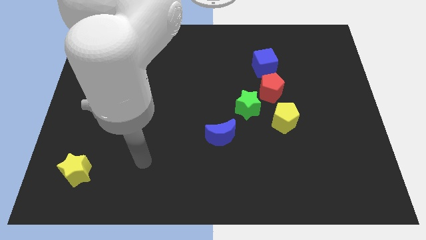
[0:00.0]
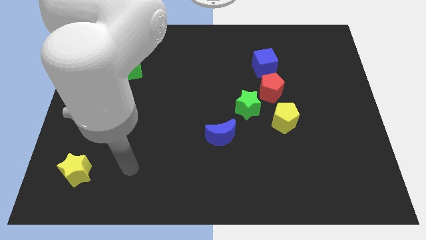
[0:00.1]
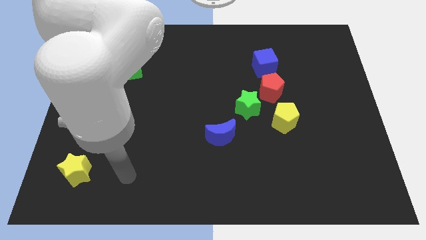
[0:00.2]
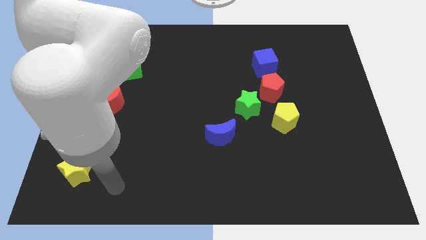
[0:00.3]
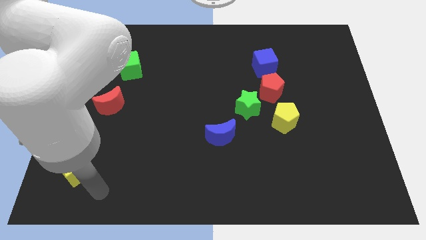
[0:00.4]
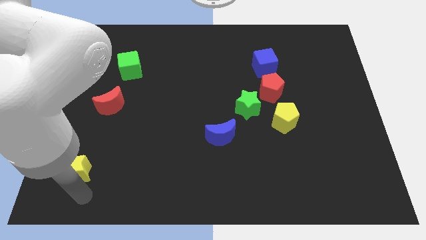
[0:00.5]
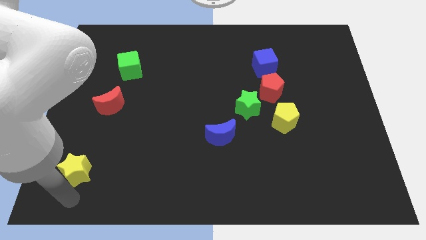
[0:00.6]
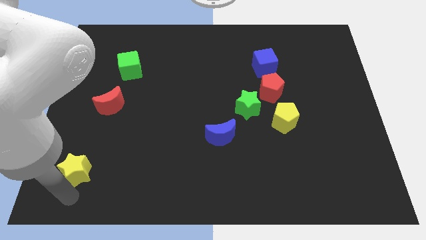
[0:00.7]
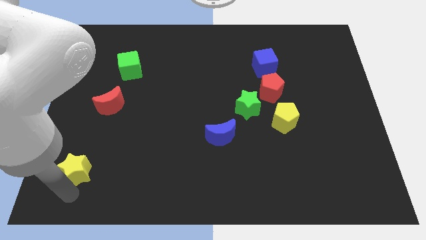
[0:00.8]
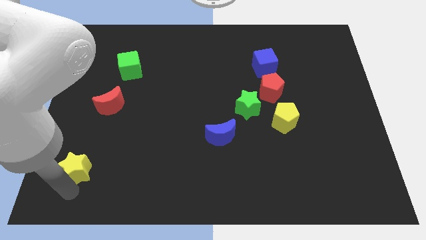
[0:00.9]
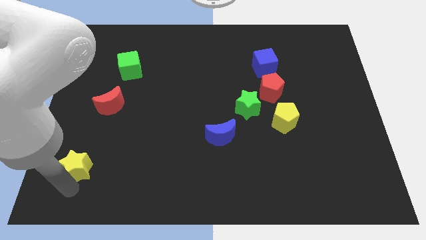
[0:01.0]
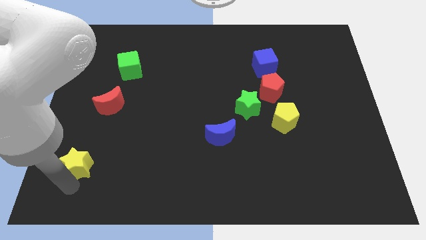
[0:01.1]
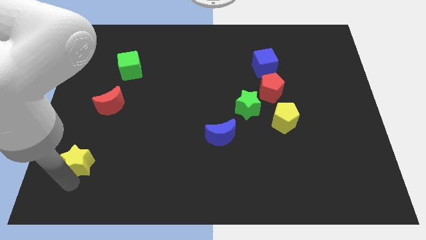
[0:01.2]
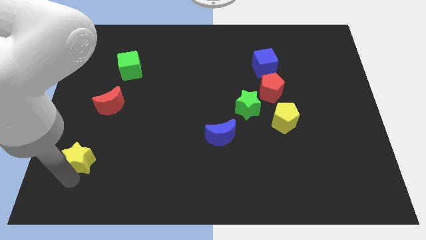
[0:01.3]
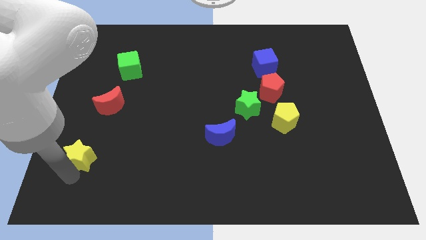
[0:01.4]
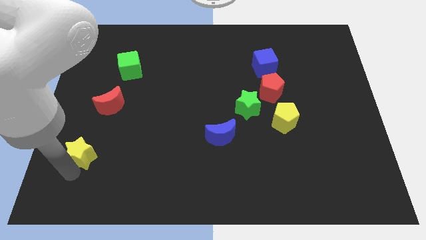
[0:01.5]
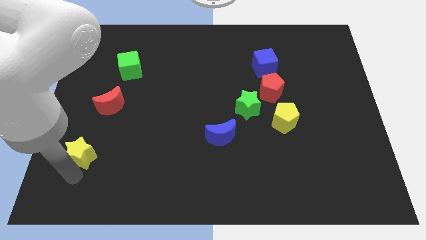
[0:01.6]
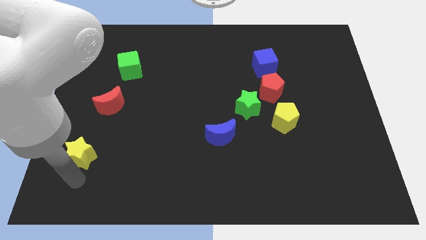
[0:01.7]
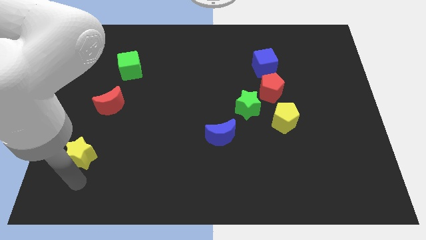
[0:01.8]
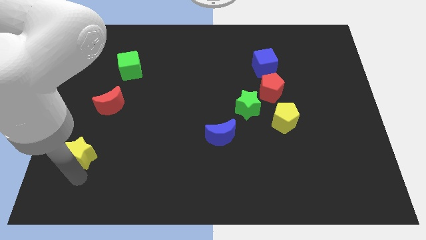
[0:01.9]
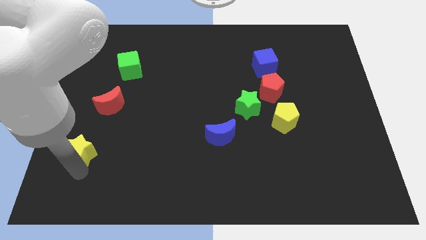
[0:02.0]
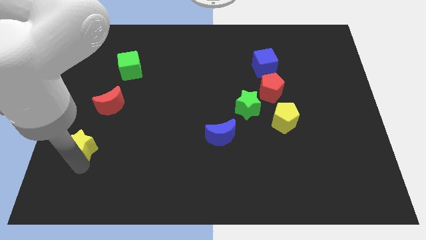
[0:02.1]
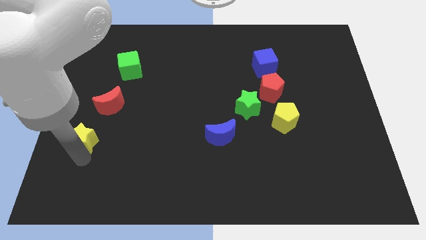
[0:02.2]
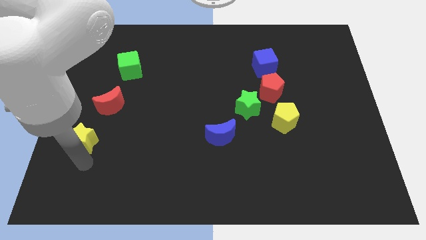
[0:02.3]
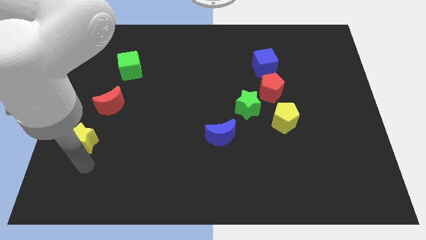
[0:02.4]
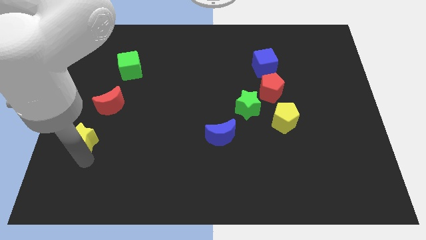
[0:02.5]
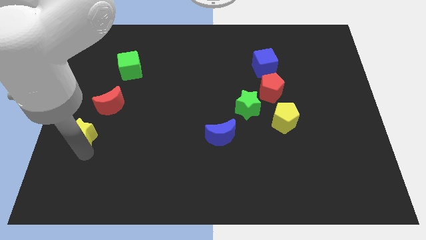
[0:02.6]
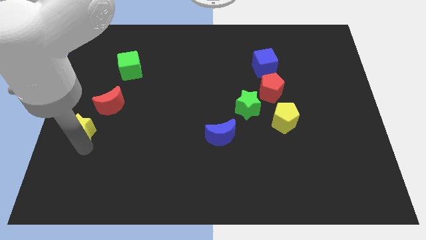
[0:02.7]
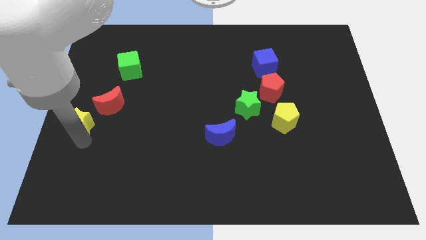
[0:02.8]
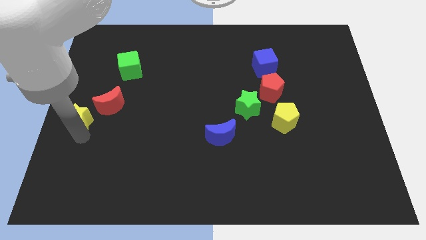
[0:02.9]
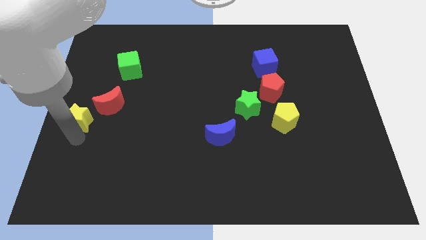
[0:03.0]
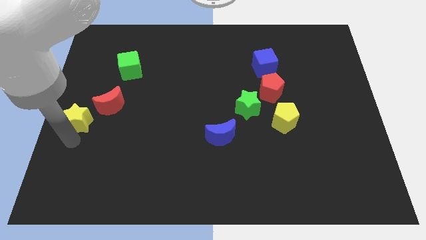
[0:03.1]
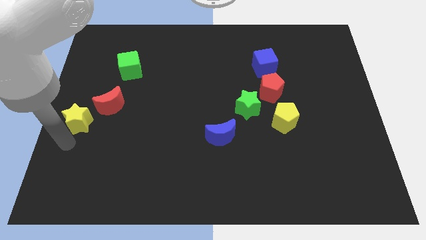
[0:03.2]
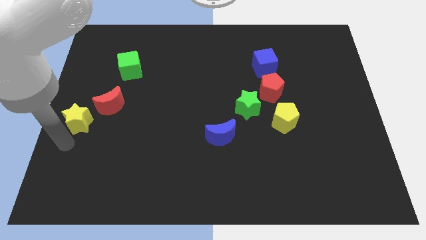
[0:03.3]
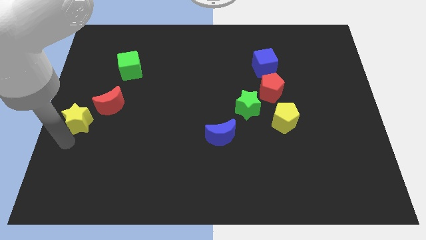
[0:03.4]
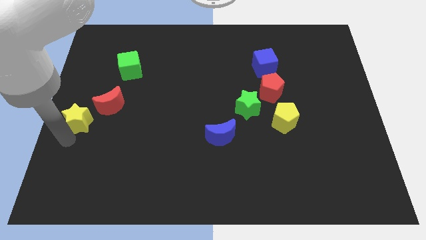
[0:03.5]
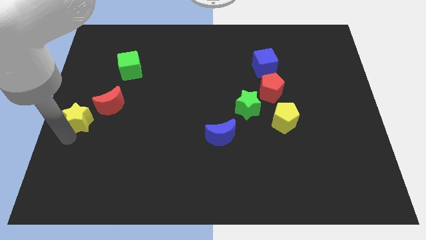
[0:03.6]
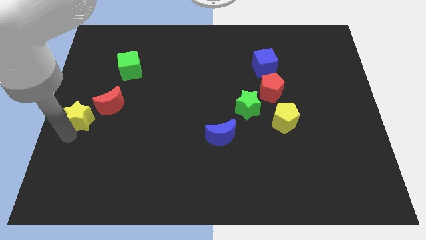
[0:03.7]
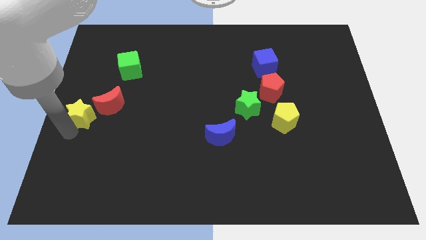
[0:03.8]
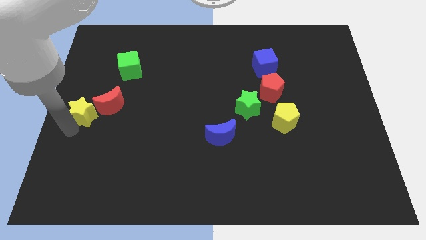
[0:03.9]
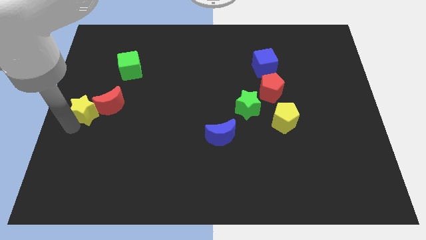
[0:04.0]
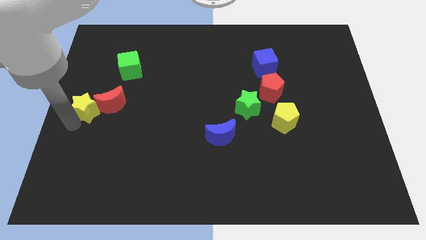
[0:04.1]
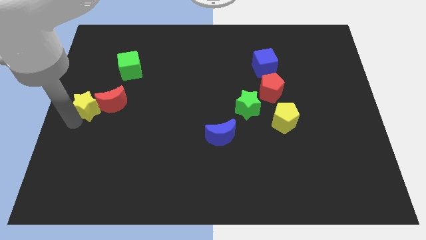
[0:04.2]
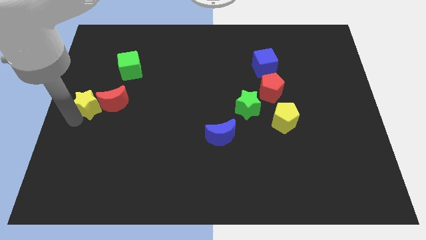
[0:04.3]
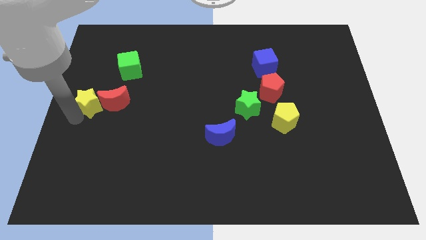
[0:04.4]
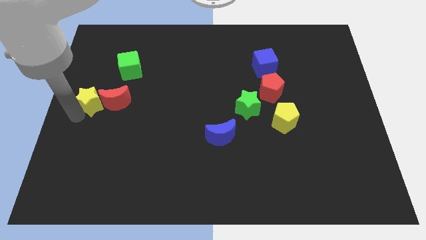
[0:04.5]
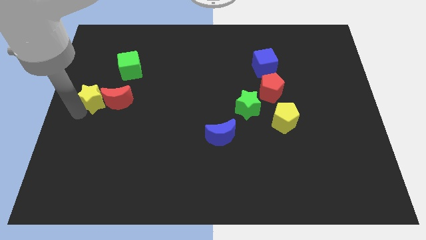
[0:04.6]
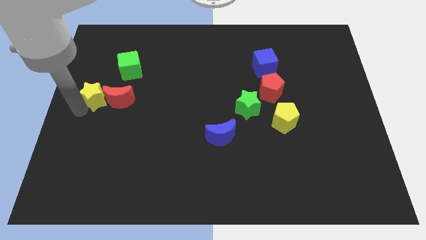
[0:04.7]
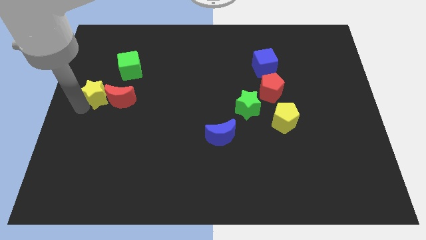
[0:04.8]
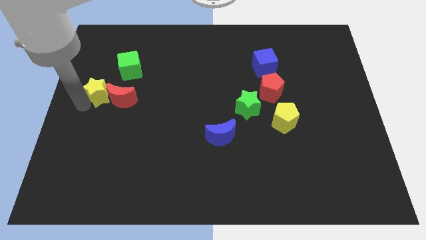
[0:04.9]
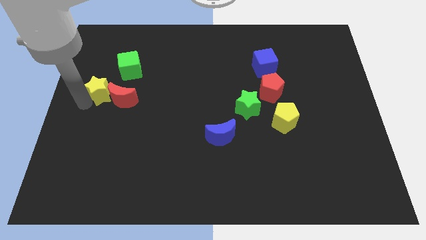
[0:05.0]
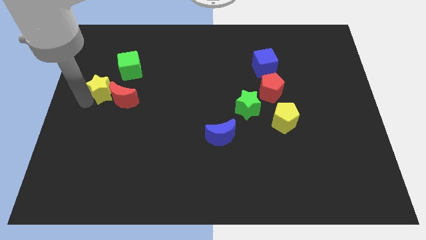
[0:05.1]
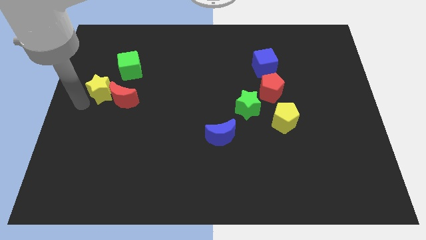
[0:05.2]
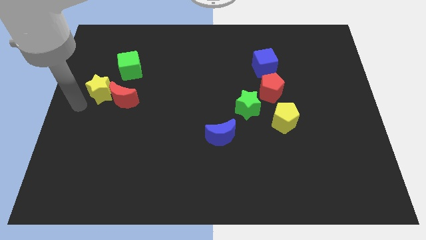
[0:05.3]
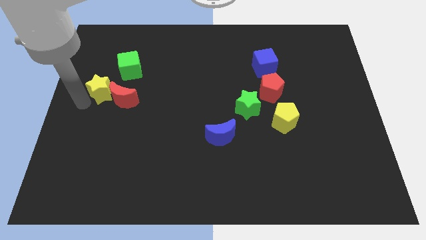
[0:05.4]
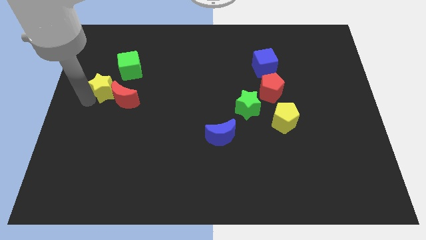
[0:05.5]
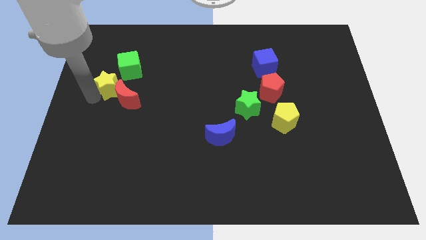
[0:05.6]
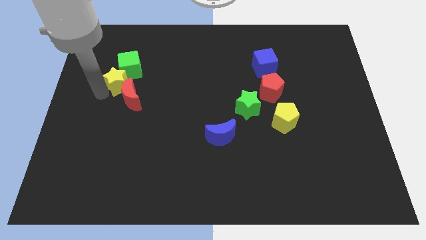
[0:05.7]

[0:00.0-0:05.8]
move the yellow star close to the green cube

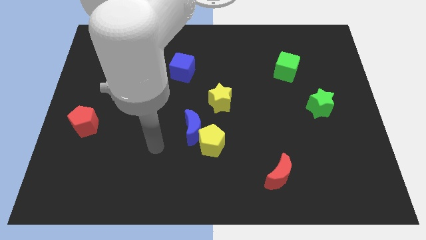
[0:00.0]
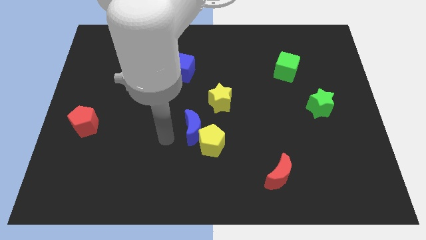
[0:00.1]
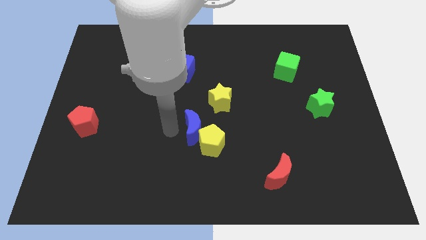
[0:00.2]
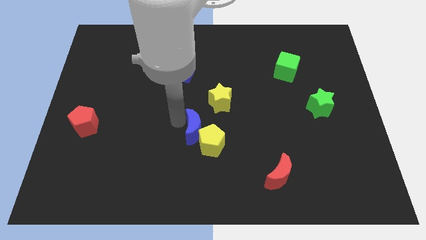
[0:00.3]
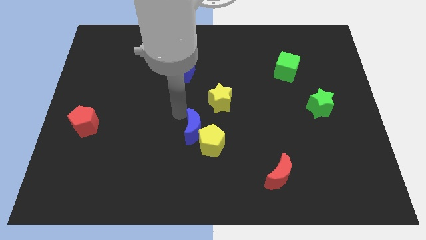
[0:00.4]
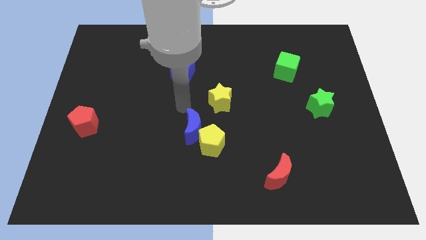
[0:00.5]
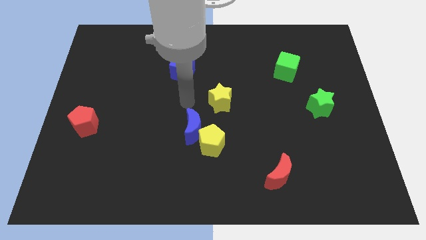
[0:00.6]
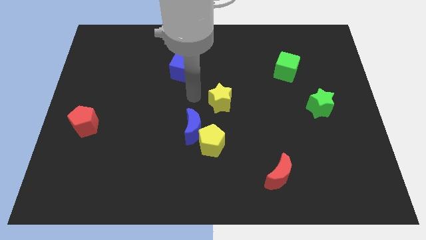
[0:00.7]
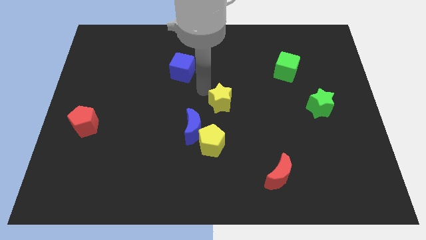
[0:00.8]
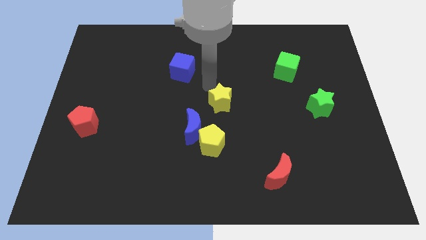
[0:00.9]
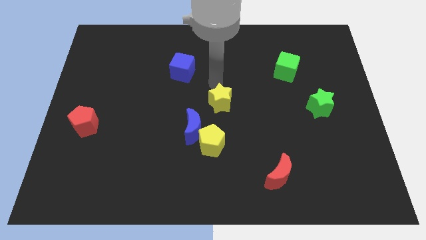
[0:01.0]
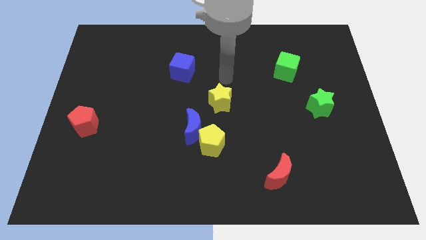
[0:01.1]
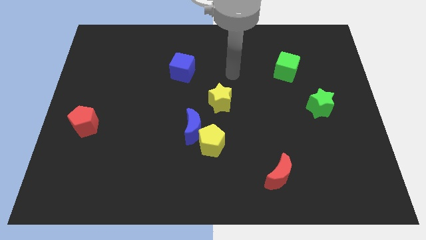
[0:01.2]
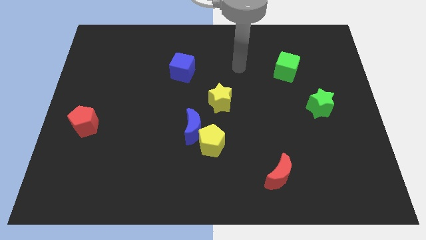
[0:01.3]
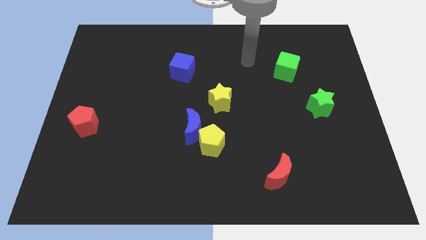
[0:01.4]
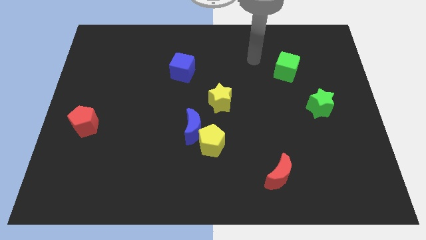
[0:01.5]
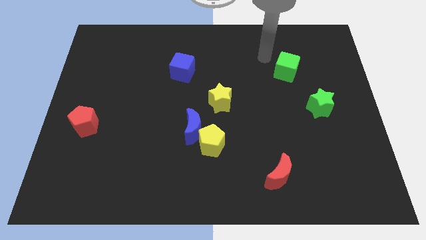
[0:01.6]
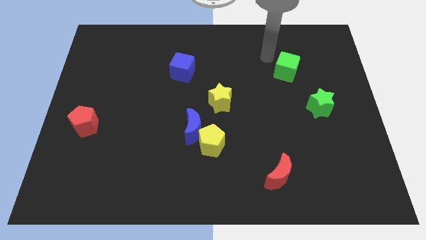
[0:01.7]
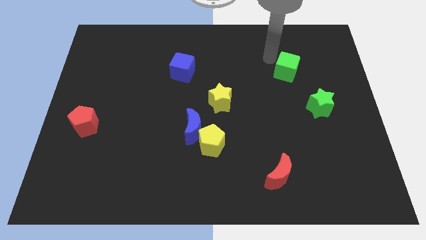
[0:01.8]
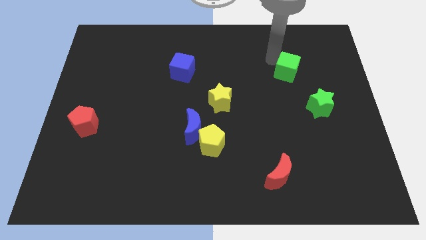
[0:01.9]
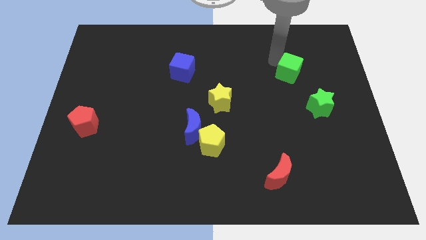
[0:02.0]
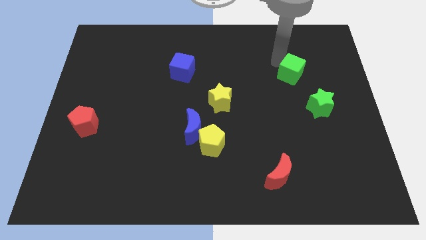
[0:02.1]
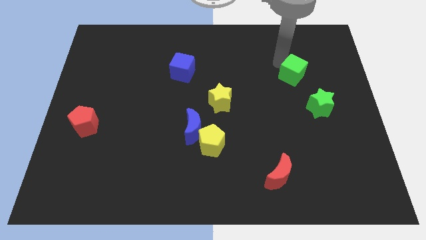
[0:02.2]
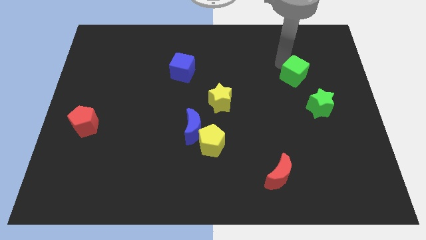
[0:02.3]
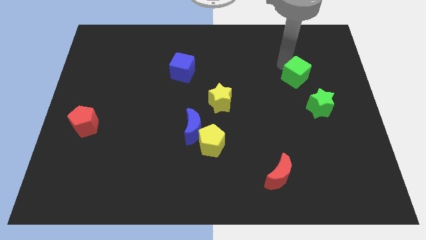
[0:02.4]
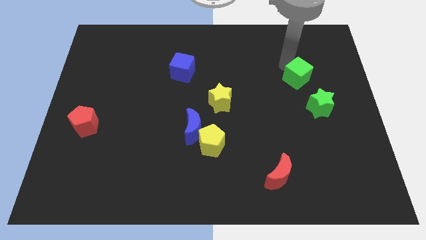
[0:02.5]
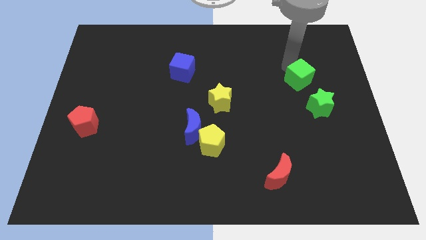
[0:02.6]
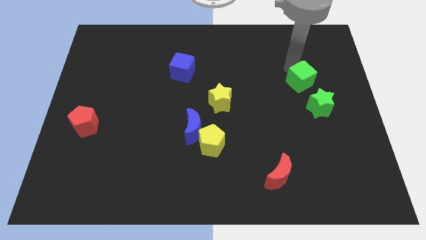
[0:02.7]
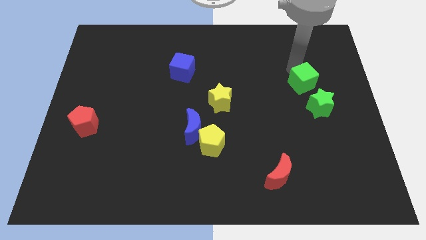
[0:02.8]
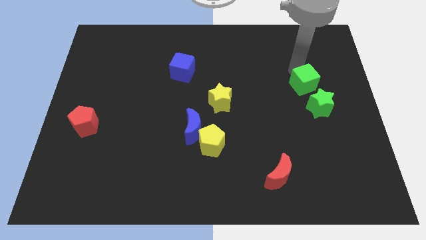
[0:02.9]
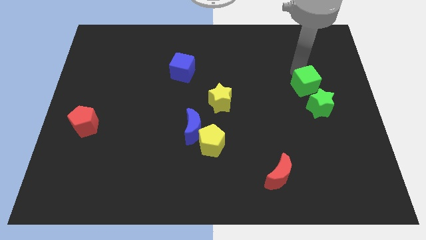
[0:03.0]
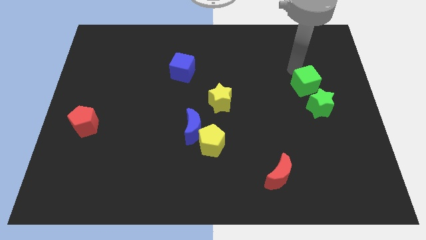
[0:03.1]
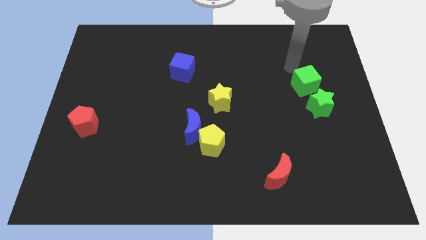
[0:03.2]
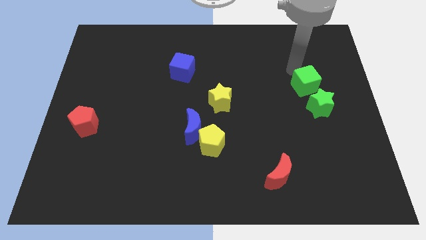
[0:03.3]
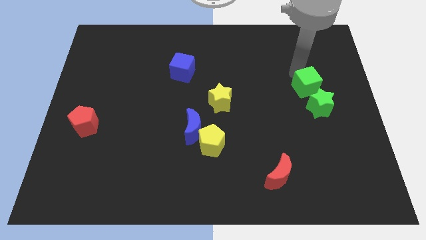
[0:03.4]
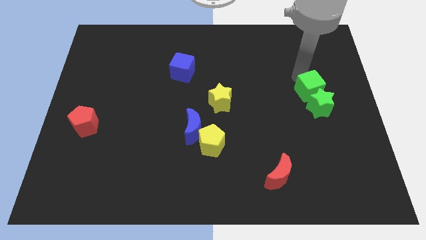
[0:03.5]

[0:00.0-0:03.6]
move the green cube close to the green star
